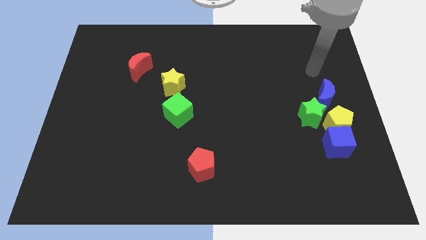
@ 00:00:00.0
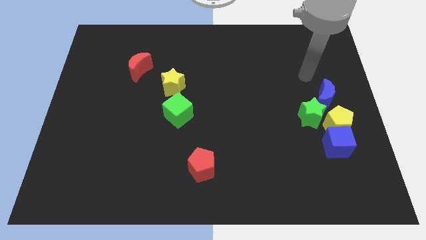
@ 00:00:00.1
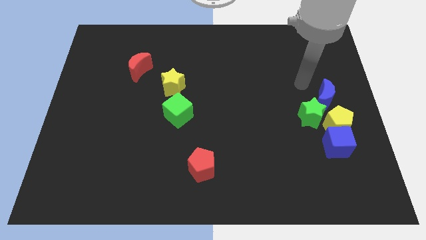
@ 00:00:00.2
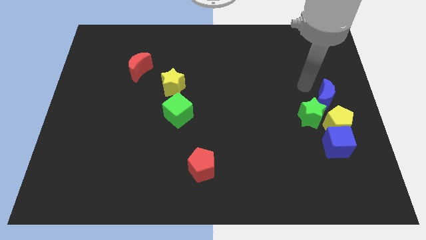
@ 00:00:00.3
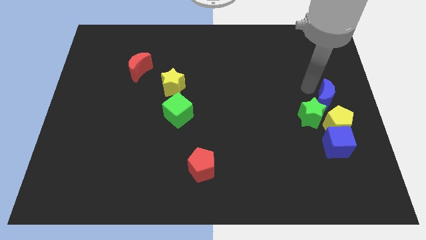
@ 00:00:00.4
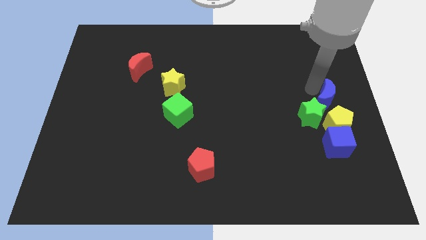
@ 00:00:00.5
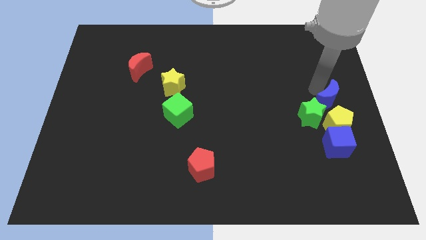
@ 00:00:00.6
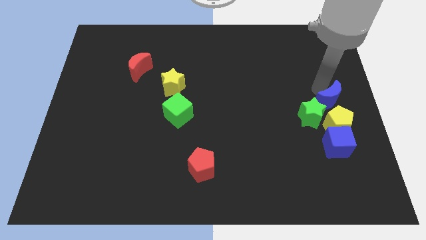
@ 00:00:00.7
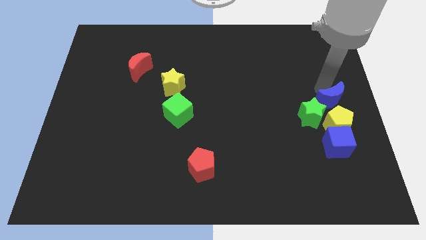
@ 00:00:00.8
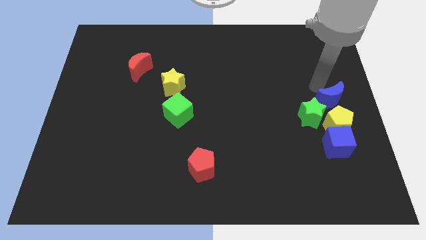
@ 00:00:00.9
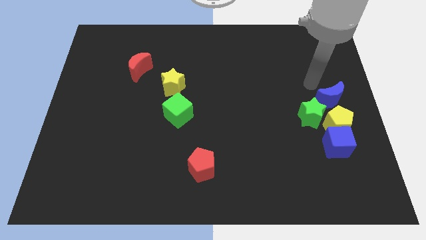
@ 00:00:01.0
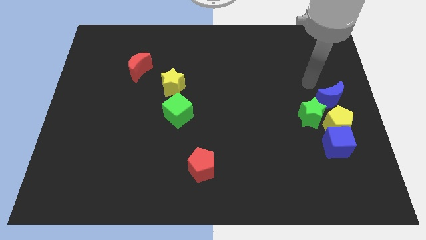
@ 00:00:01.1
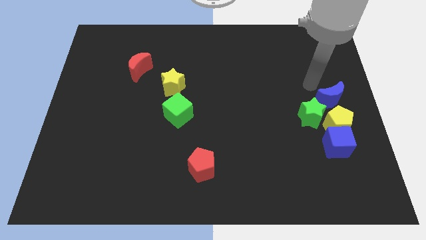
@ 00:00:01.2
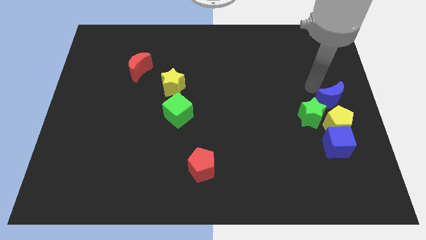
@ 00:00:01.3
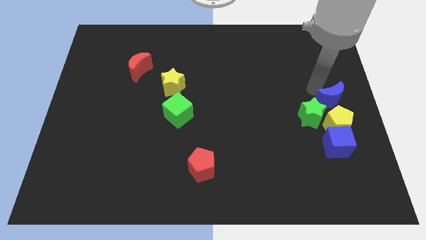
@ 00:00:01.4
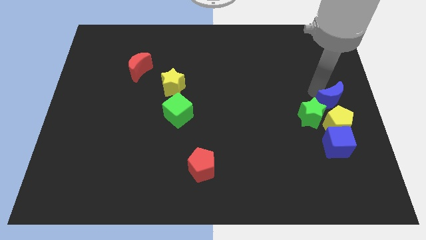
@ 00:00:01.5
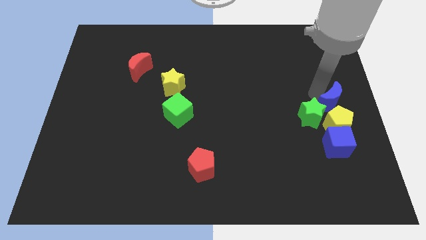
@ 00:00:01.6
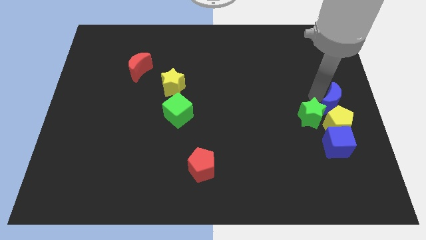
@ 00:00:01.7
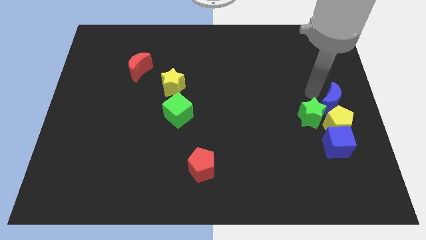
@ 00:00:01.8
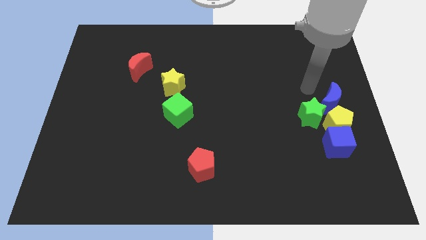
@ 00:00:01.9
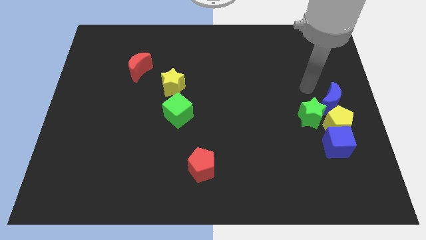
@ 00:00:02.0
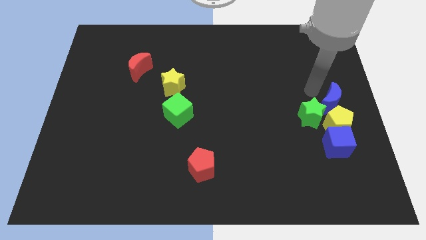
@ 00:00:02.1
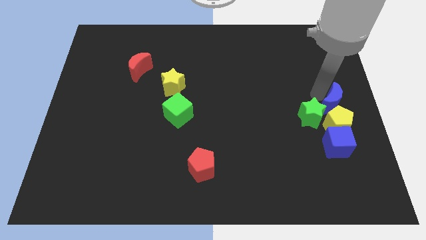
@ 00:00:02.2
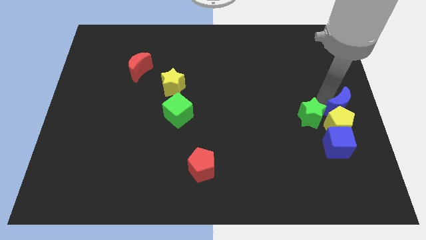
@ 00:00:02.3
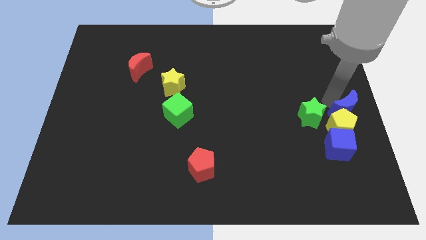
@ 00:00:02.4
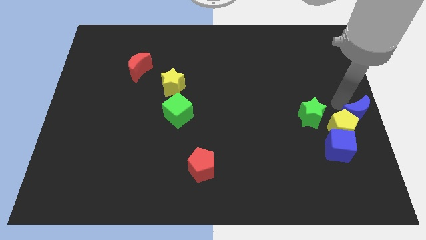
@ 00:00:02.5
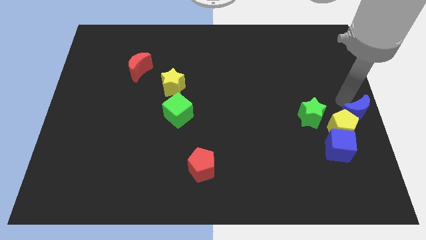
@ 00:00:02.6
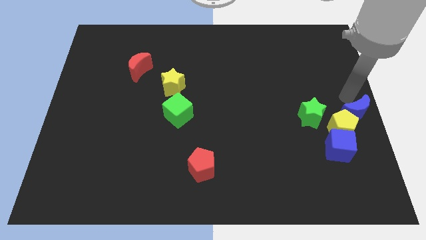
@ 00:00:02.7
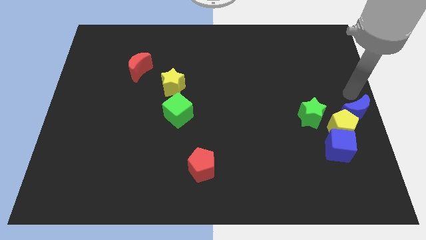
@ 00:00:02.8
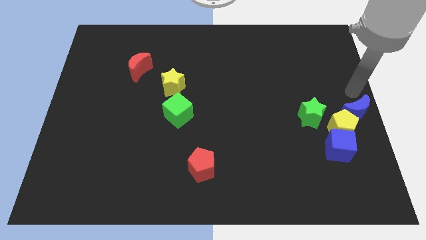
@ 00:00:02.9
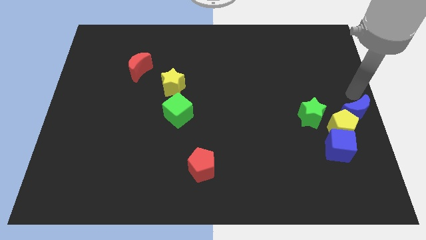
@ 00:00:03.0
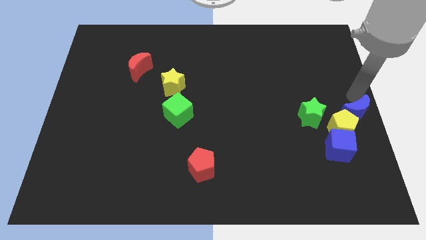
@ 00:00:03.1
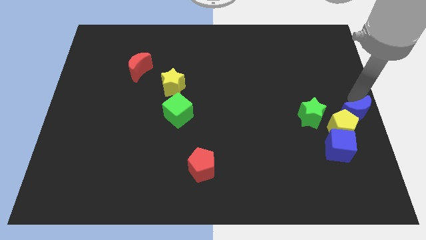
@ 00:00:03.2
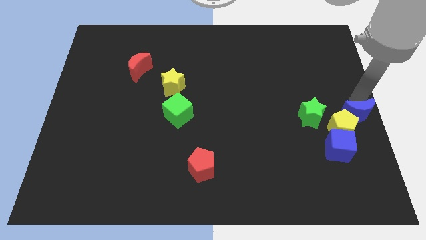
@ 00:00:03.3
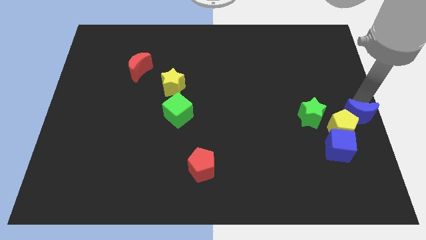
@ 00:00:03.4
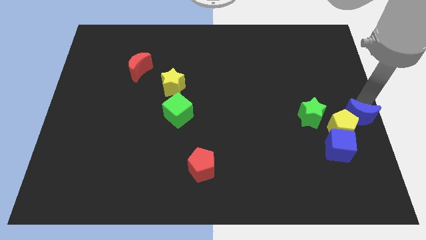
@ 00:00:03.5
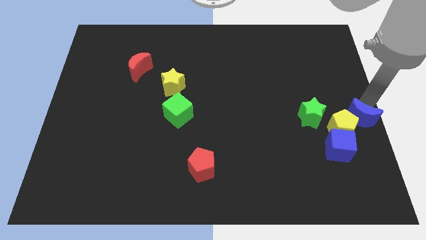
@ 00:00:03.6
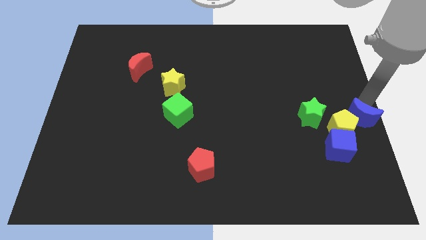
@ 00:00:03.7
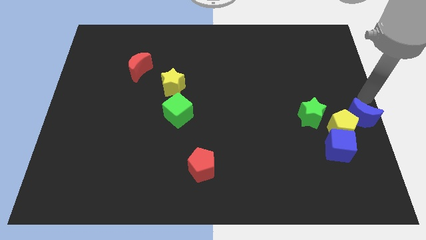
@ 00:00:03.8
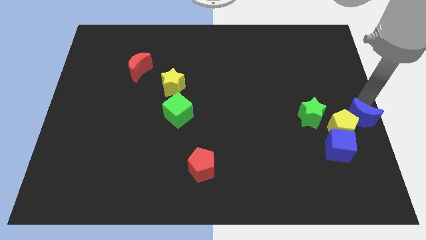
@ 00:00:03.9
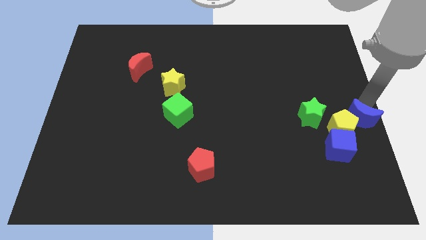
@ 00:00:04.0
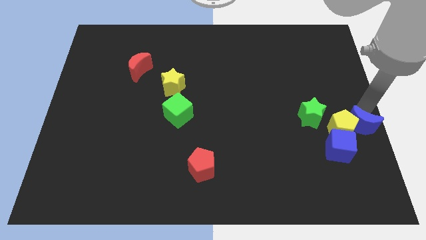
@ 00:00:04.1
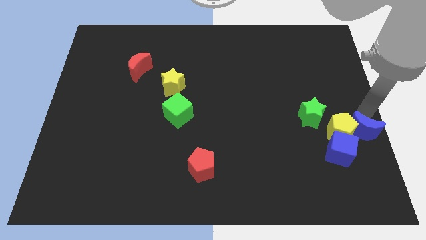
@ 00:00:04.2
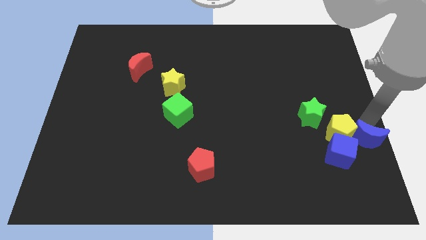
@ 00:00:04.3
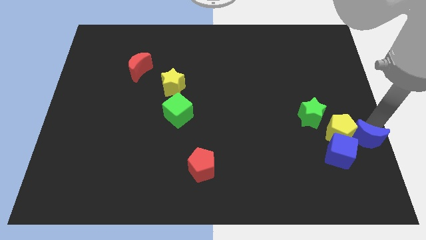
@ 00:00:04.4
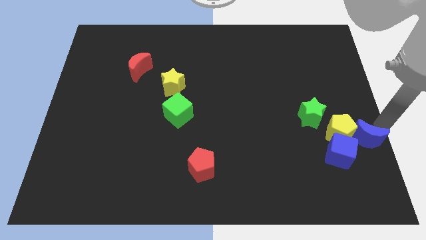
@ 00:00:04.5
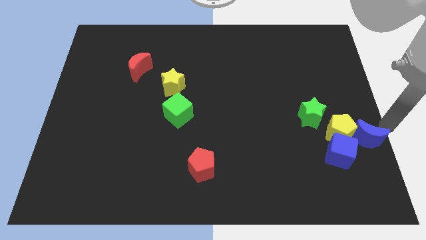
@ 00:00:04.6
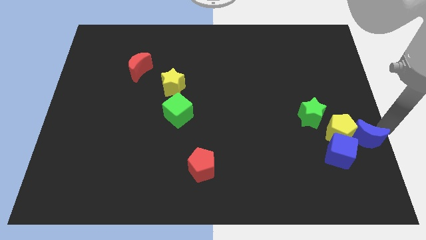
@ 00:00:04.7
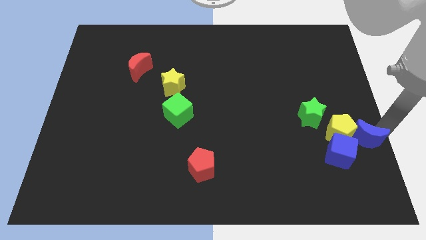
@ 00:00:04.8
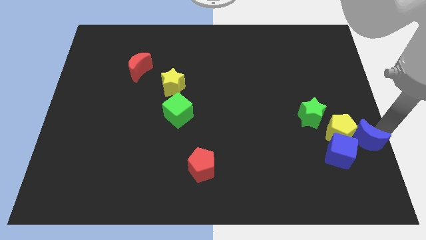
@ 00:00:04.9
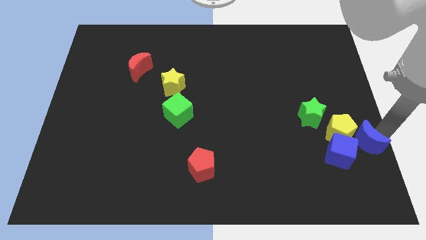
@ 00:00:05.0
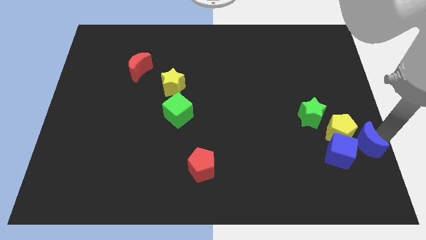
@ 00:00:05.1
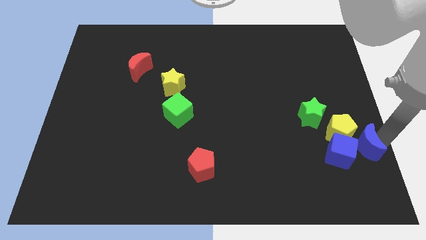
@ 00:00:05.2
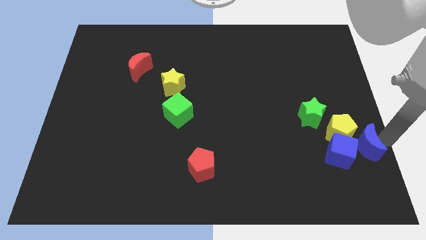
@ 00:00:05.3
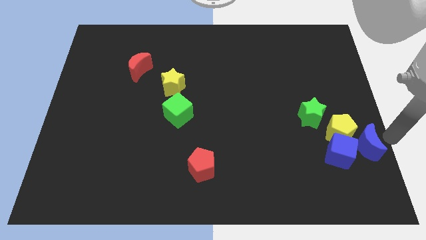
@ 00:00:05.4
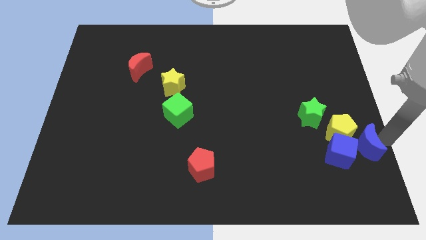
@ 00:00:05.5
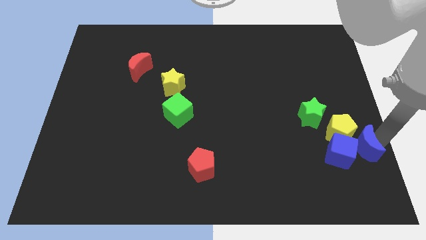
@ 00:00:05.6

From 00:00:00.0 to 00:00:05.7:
push the blue moon close to the blue cube
